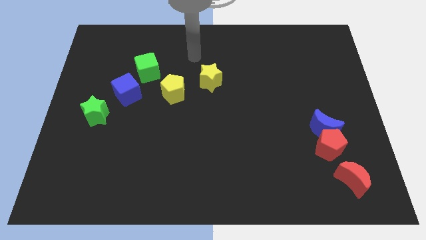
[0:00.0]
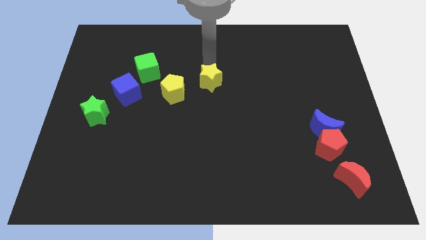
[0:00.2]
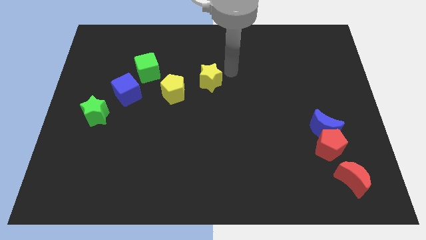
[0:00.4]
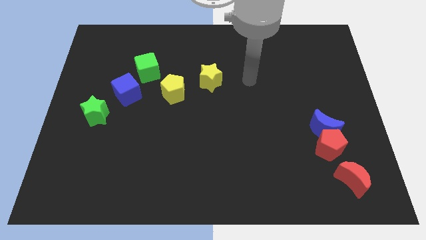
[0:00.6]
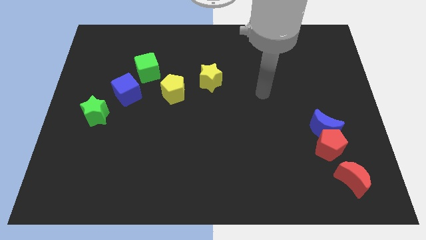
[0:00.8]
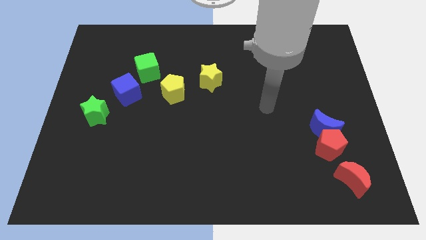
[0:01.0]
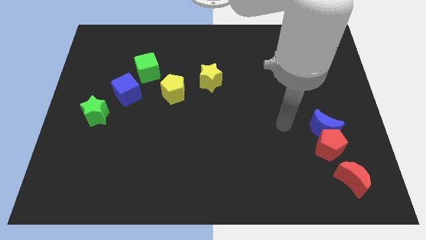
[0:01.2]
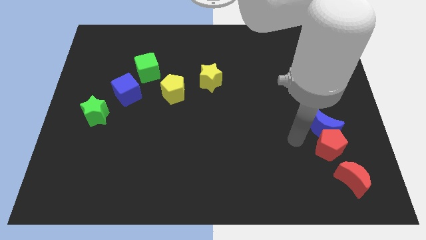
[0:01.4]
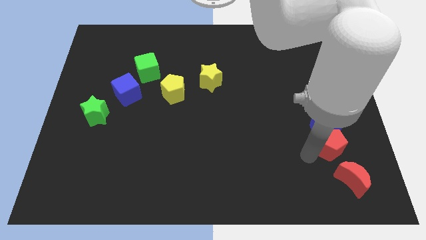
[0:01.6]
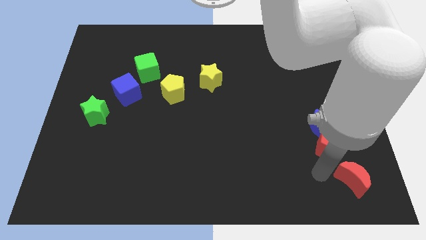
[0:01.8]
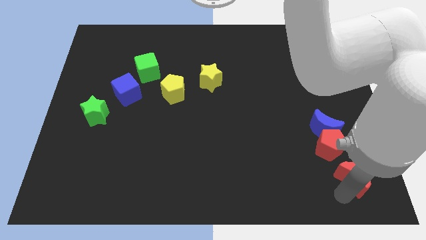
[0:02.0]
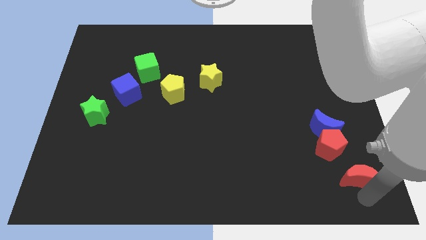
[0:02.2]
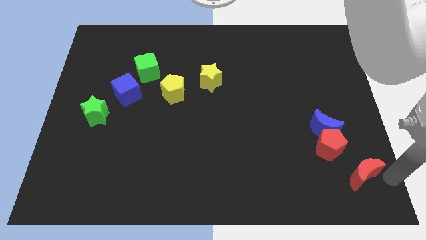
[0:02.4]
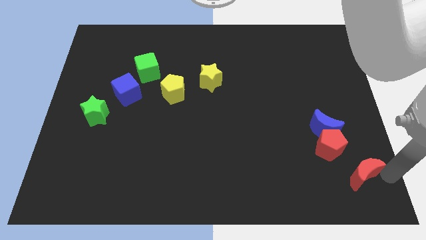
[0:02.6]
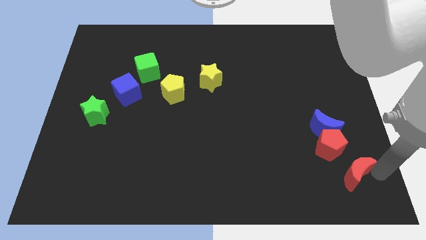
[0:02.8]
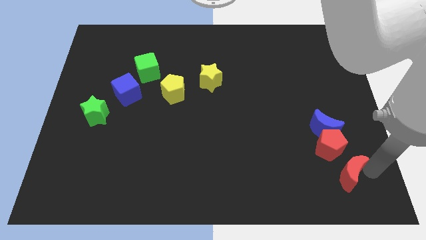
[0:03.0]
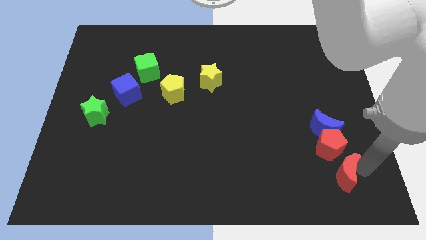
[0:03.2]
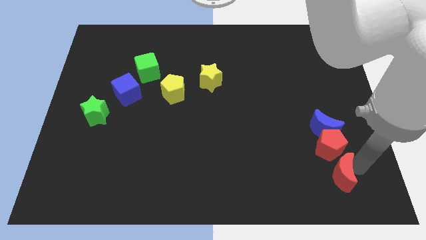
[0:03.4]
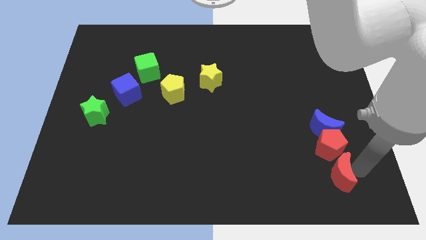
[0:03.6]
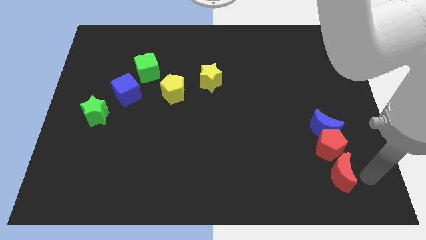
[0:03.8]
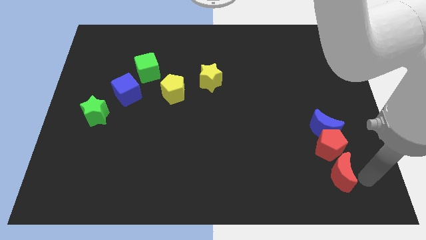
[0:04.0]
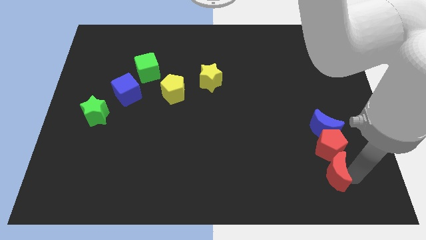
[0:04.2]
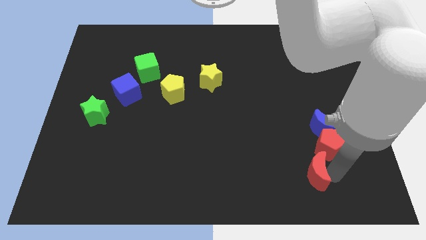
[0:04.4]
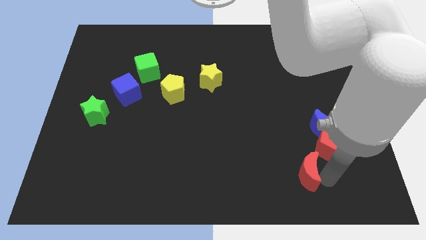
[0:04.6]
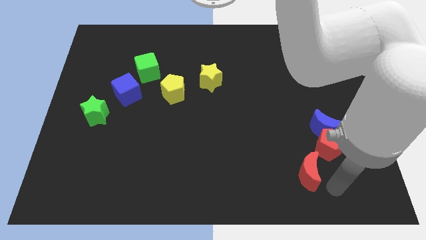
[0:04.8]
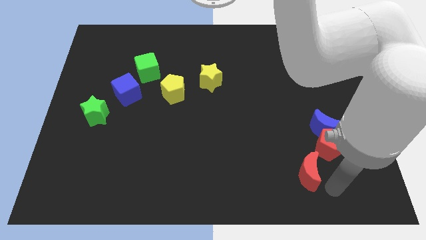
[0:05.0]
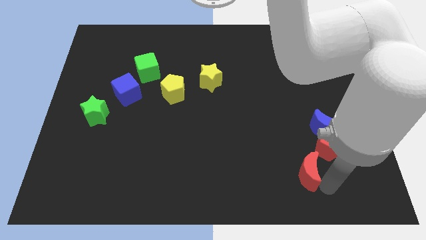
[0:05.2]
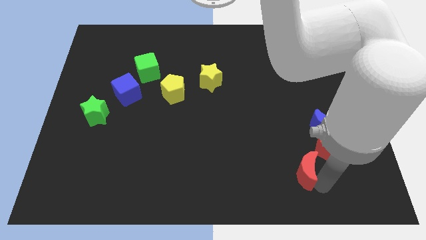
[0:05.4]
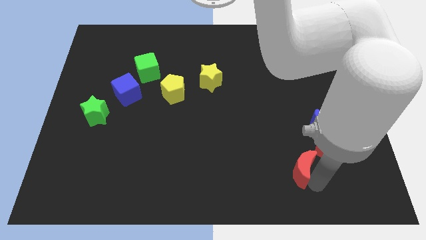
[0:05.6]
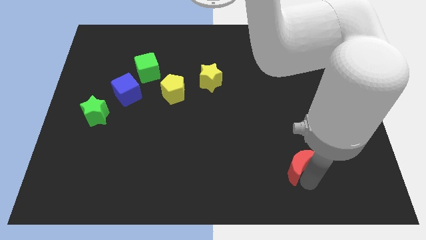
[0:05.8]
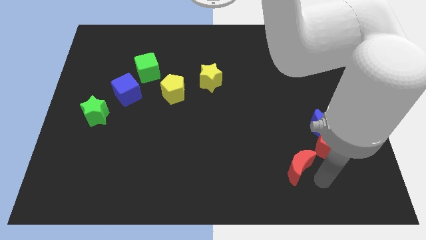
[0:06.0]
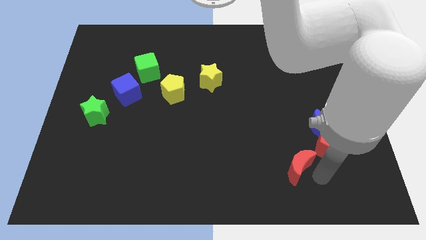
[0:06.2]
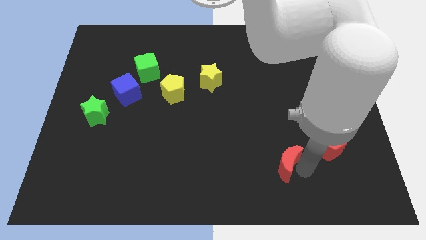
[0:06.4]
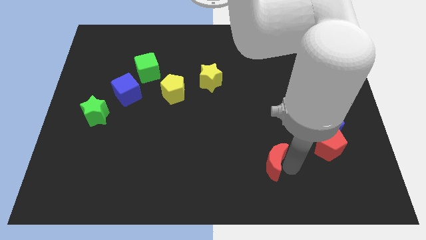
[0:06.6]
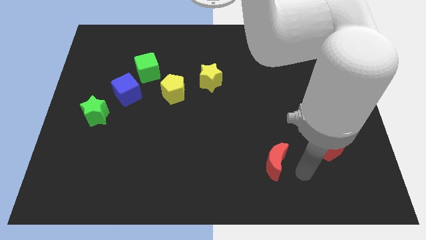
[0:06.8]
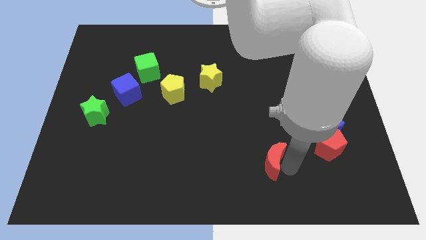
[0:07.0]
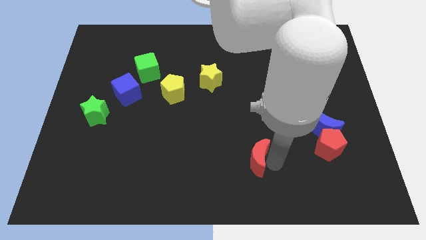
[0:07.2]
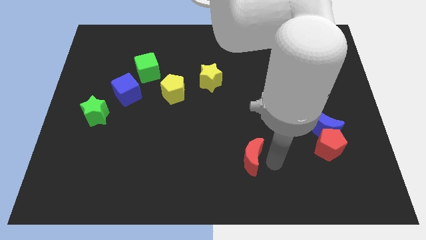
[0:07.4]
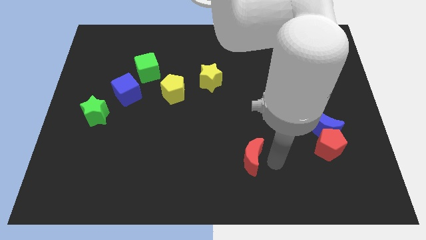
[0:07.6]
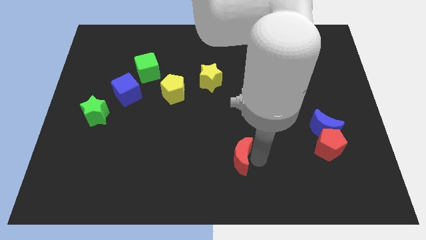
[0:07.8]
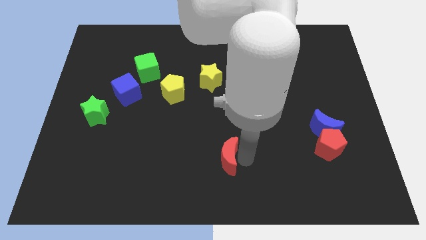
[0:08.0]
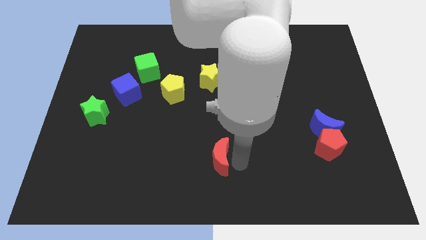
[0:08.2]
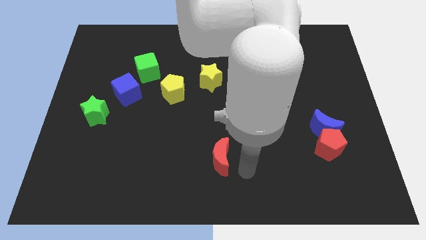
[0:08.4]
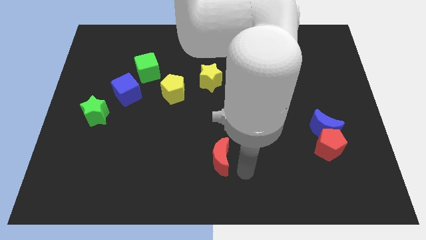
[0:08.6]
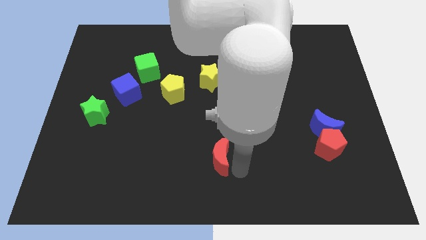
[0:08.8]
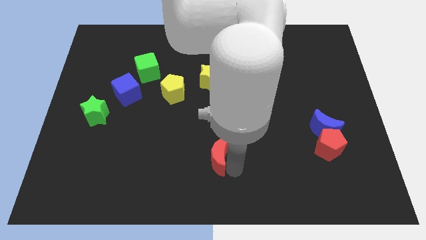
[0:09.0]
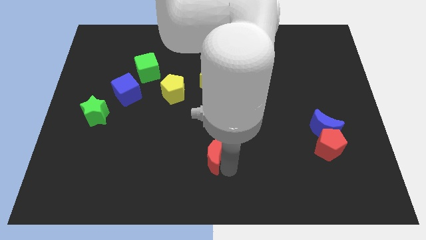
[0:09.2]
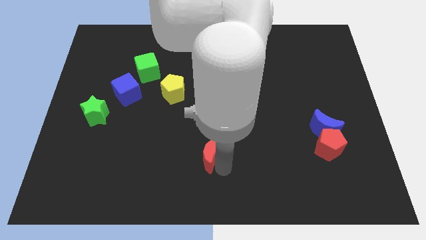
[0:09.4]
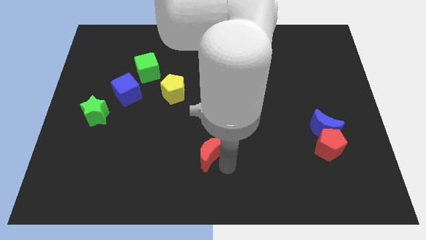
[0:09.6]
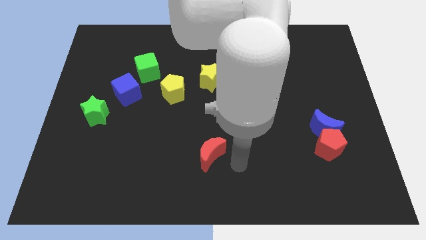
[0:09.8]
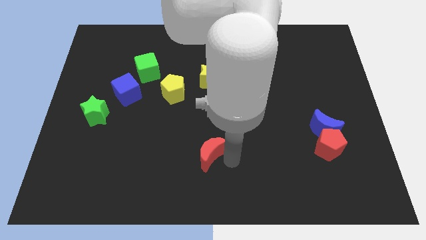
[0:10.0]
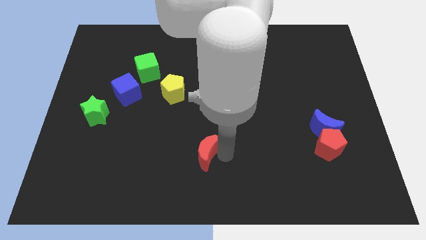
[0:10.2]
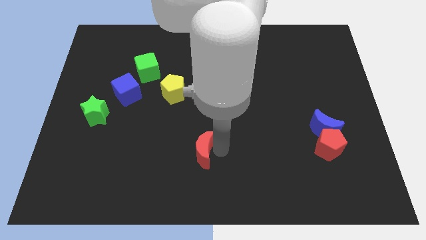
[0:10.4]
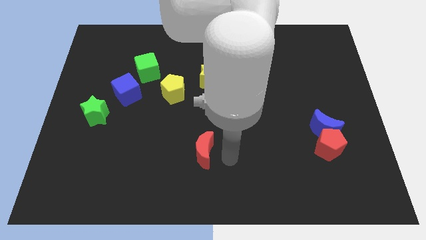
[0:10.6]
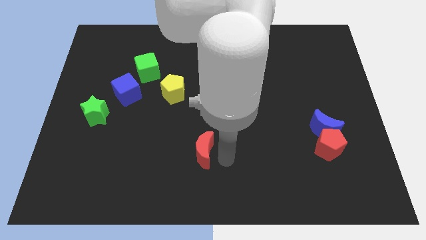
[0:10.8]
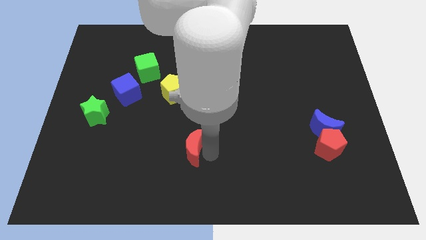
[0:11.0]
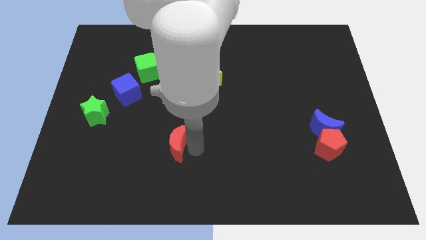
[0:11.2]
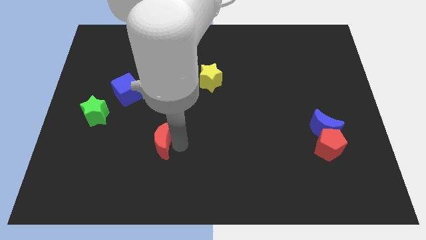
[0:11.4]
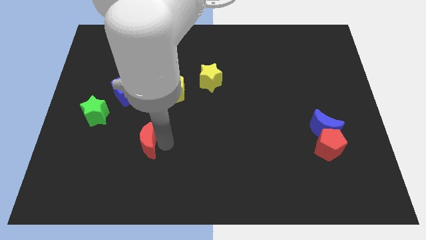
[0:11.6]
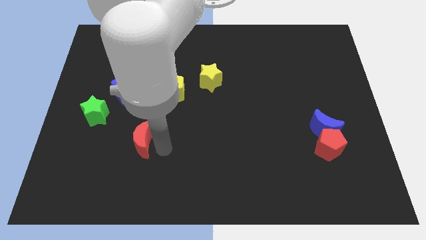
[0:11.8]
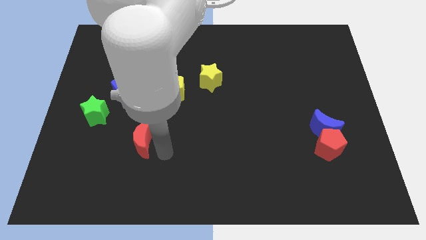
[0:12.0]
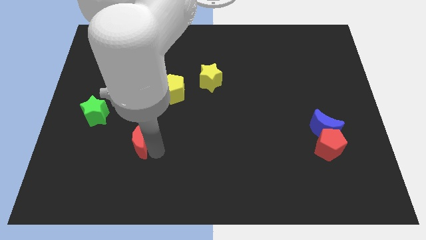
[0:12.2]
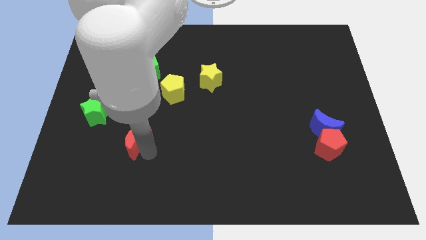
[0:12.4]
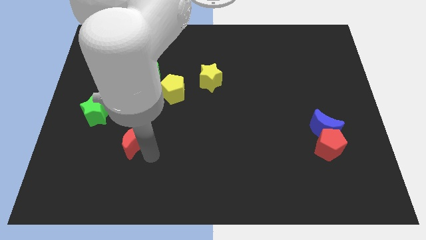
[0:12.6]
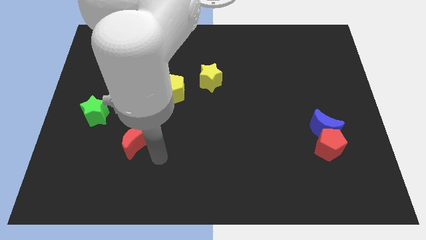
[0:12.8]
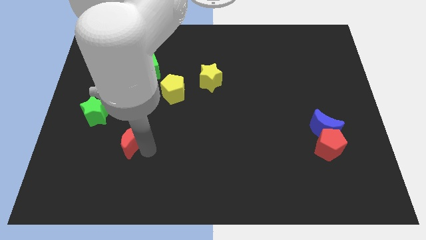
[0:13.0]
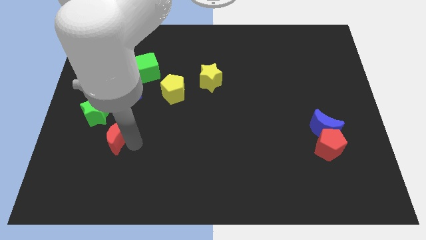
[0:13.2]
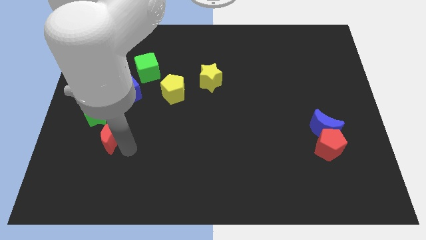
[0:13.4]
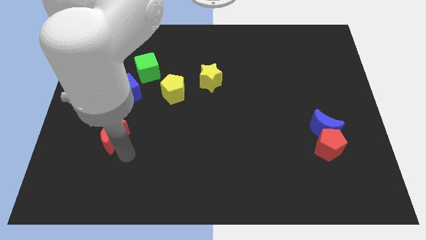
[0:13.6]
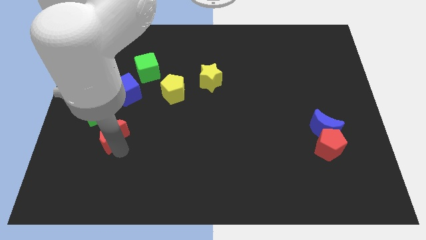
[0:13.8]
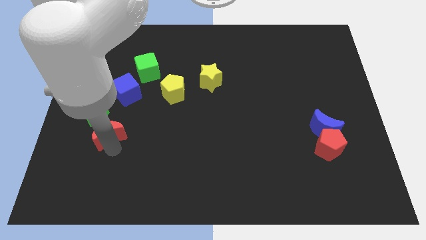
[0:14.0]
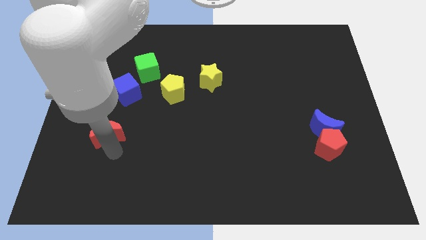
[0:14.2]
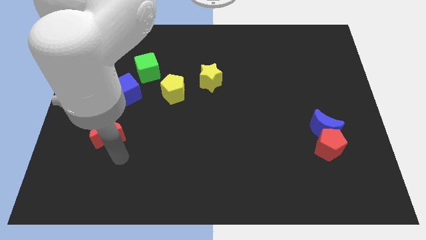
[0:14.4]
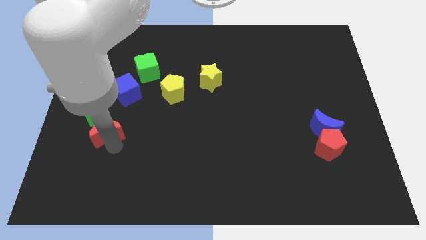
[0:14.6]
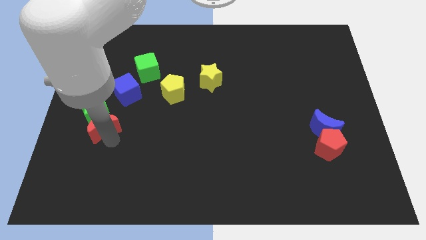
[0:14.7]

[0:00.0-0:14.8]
move the red moon towards the green star

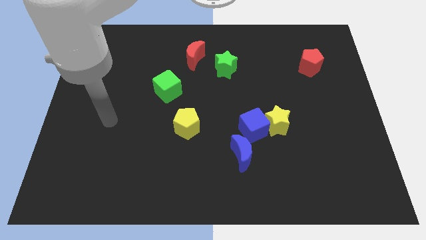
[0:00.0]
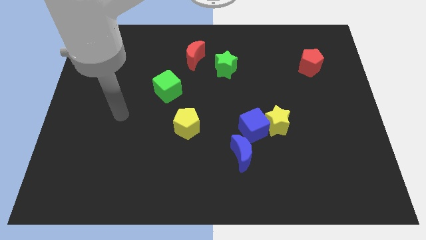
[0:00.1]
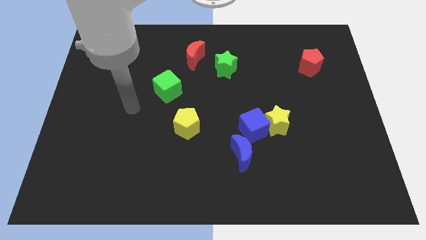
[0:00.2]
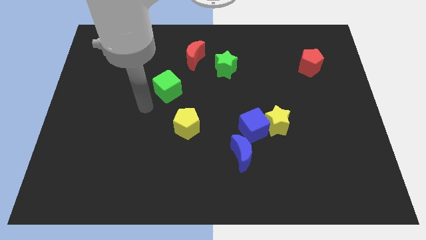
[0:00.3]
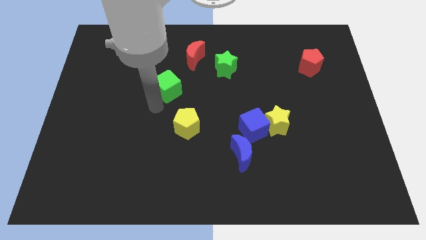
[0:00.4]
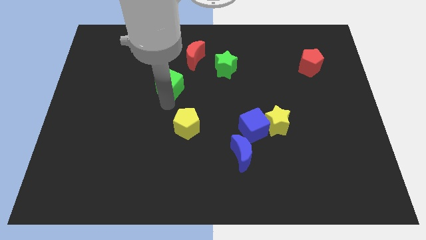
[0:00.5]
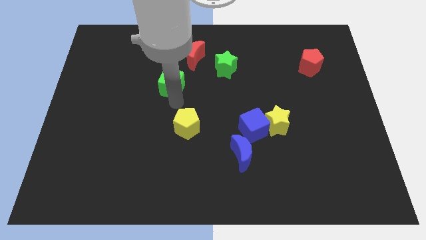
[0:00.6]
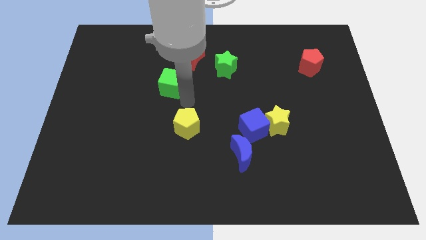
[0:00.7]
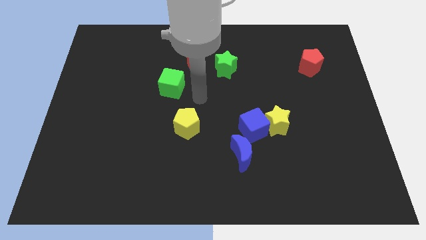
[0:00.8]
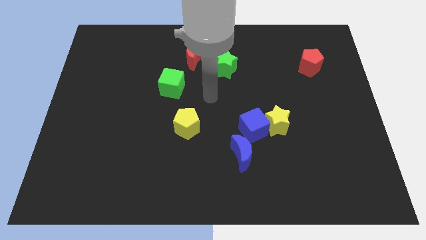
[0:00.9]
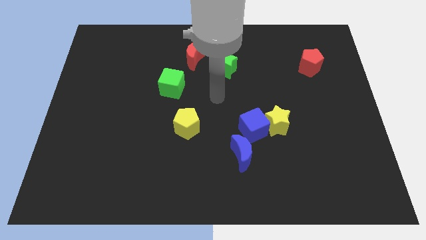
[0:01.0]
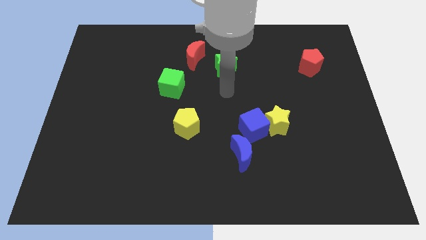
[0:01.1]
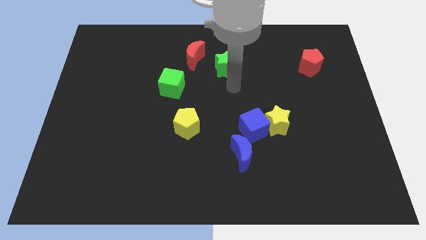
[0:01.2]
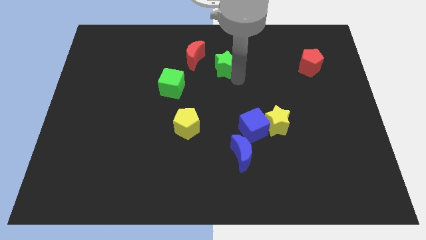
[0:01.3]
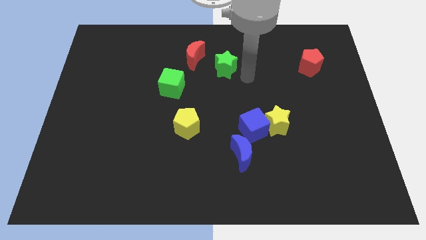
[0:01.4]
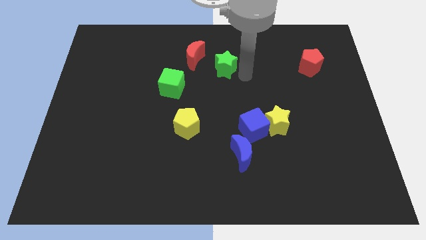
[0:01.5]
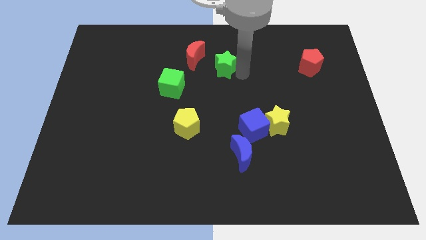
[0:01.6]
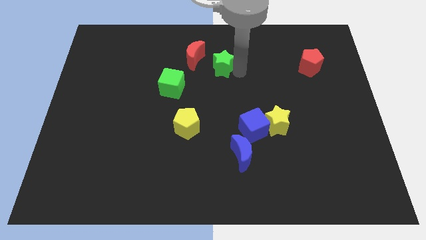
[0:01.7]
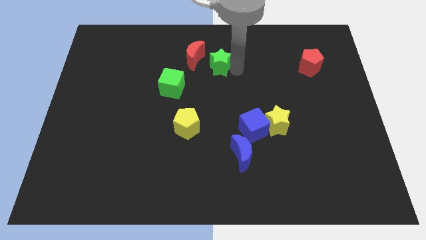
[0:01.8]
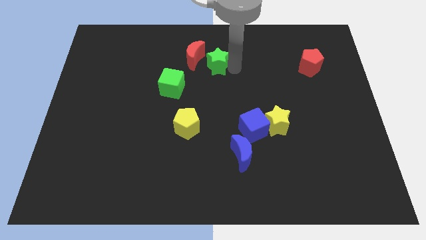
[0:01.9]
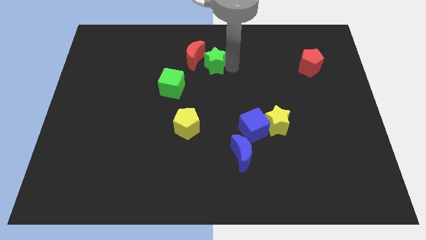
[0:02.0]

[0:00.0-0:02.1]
slide the green star next to the red moon
